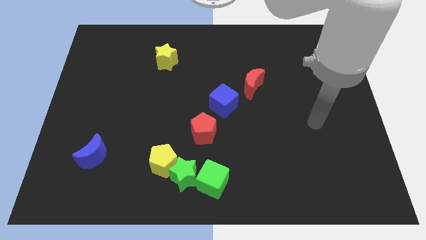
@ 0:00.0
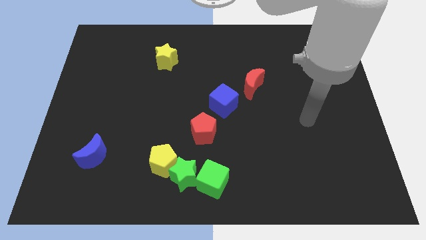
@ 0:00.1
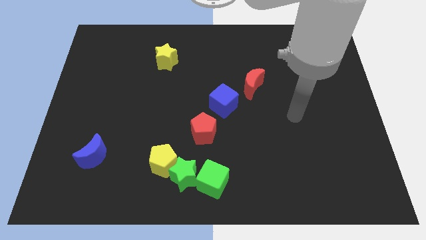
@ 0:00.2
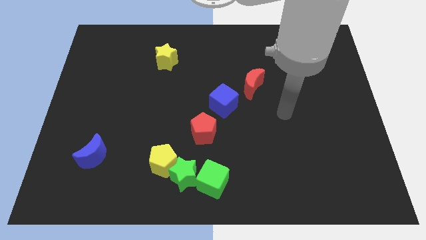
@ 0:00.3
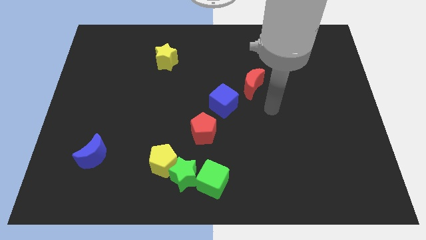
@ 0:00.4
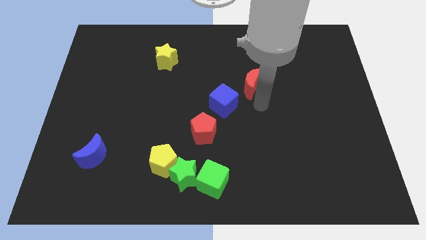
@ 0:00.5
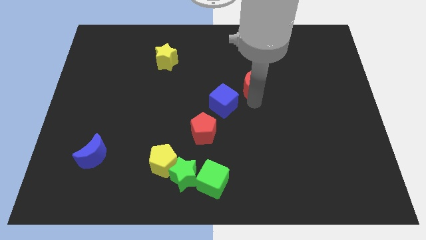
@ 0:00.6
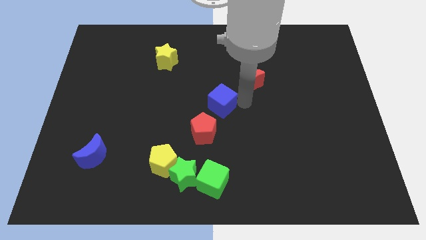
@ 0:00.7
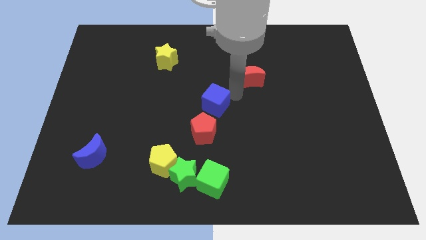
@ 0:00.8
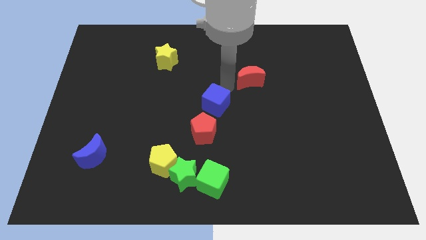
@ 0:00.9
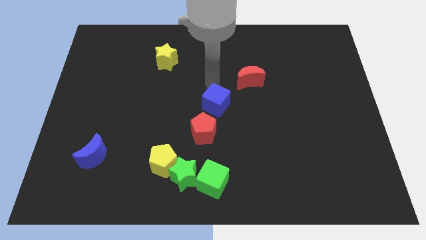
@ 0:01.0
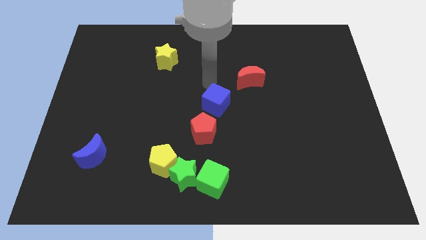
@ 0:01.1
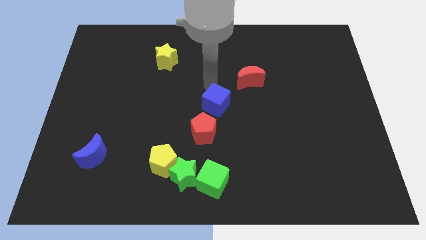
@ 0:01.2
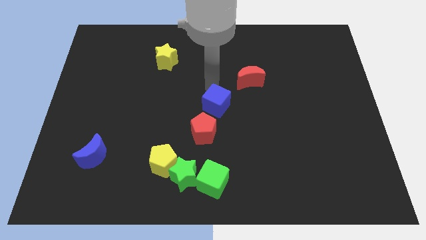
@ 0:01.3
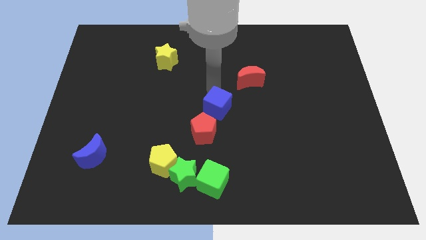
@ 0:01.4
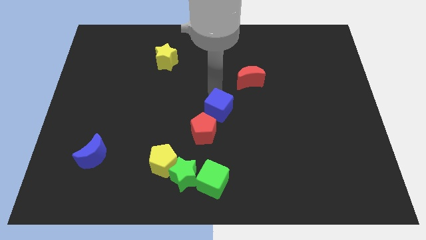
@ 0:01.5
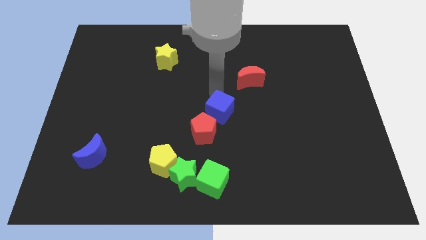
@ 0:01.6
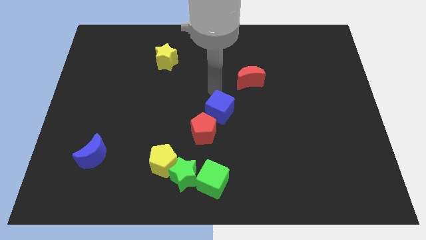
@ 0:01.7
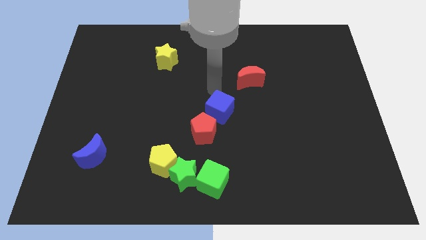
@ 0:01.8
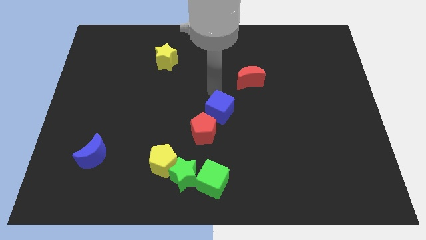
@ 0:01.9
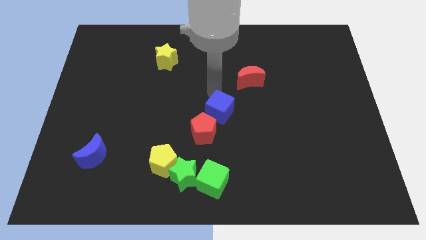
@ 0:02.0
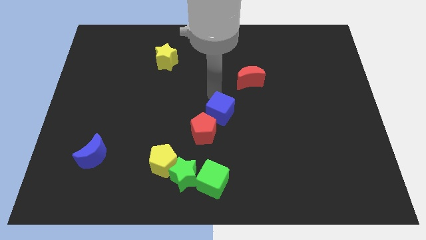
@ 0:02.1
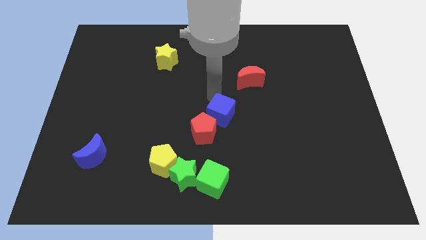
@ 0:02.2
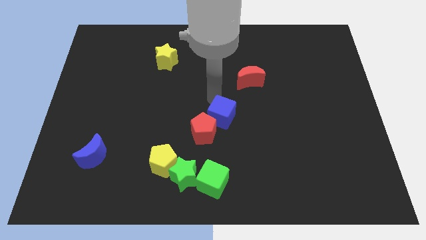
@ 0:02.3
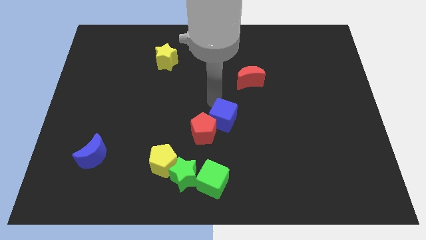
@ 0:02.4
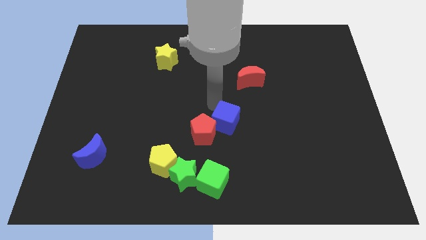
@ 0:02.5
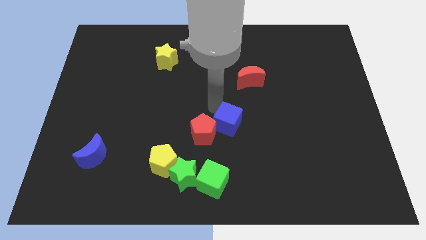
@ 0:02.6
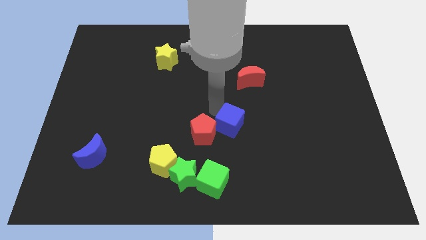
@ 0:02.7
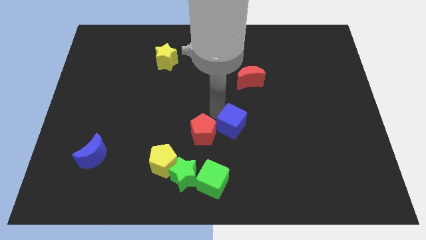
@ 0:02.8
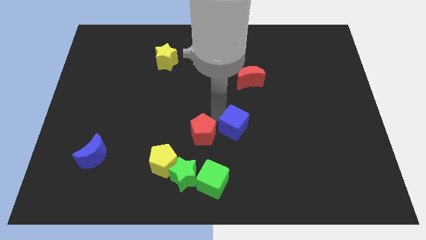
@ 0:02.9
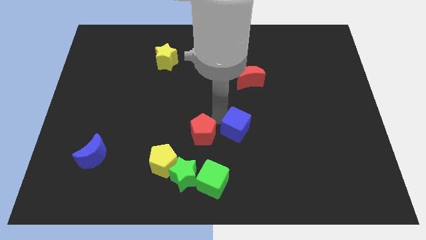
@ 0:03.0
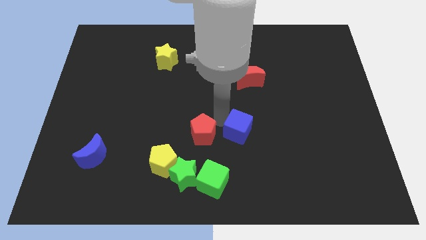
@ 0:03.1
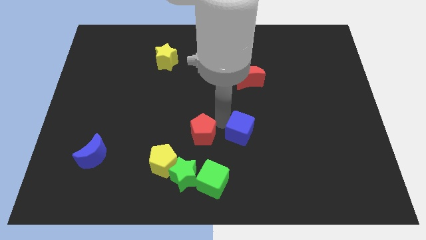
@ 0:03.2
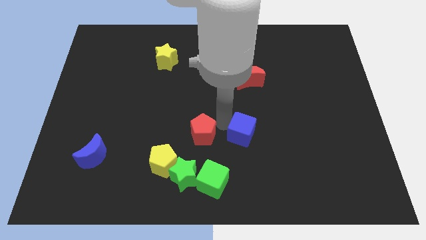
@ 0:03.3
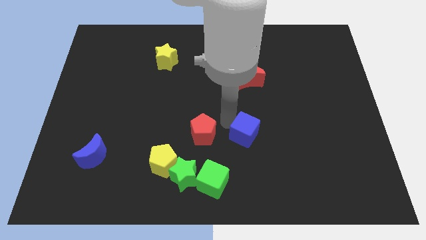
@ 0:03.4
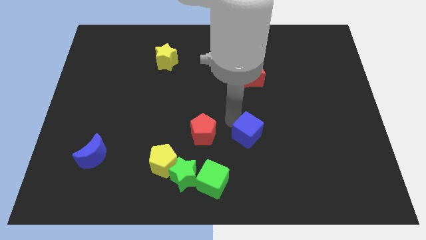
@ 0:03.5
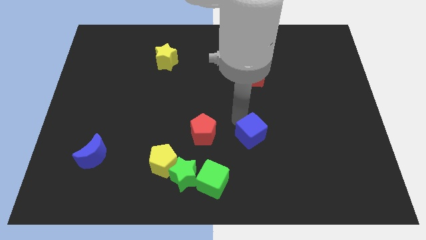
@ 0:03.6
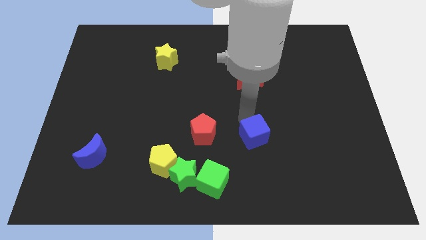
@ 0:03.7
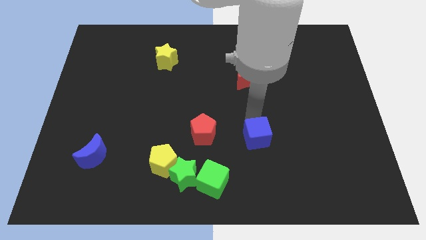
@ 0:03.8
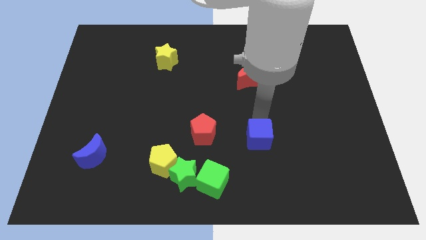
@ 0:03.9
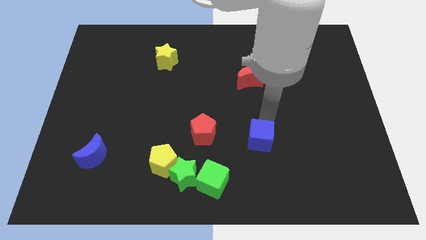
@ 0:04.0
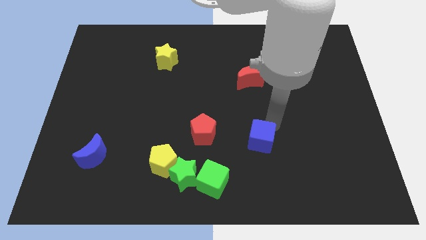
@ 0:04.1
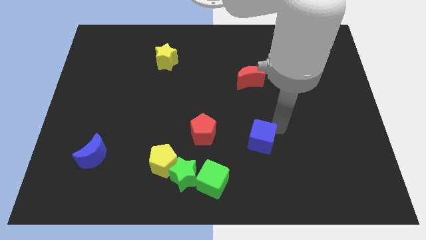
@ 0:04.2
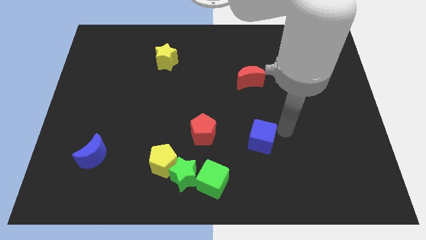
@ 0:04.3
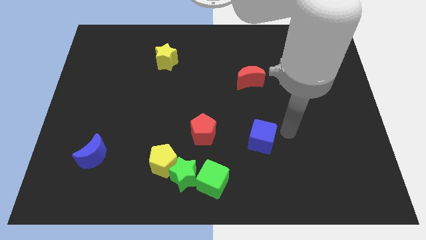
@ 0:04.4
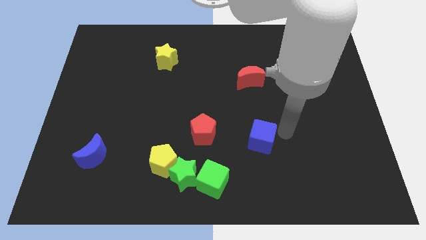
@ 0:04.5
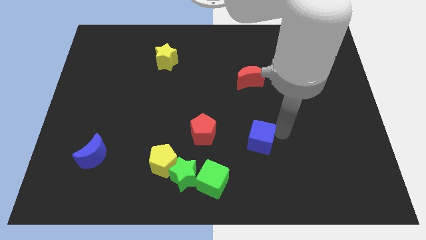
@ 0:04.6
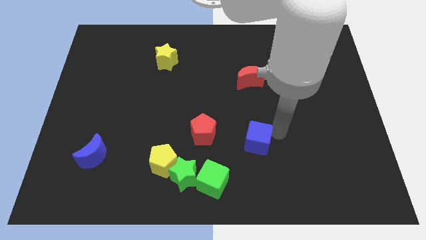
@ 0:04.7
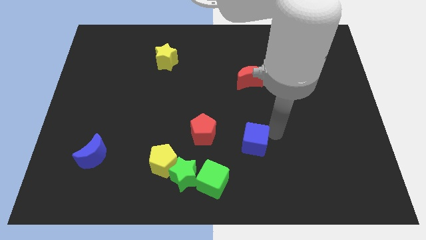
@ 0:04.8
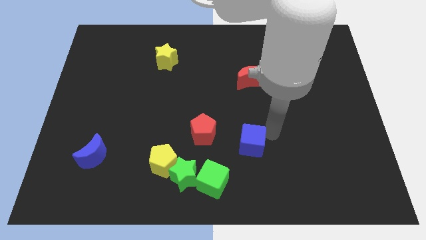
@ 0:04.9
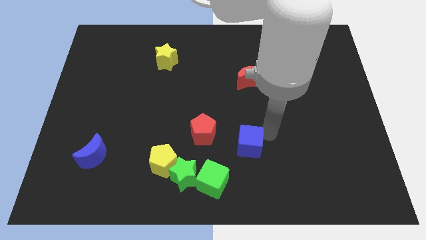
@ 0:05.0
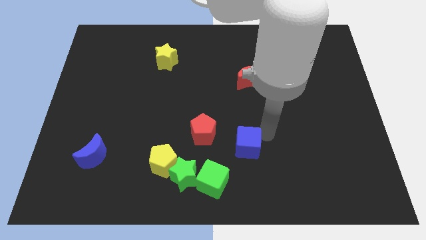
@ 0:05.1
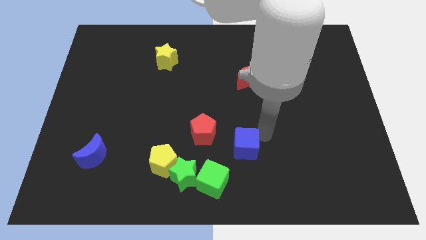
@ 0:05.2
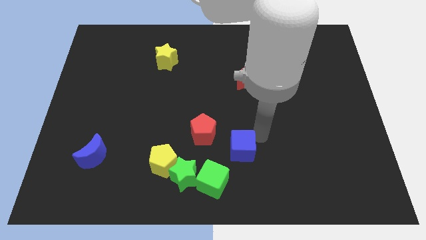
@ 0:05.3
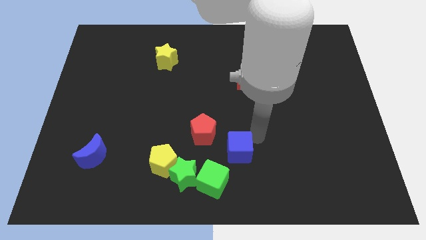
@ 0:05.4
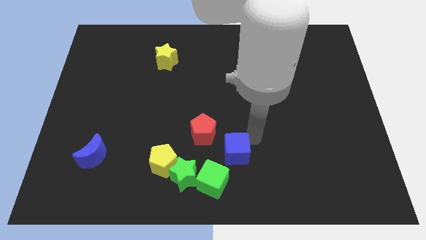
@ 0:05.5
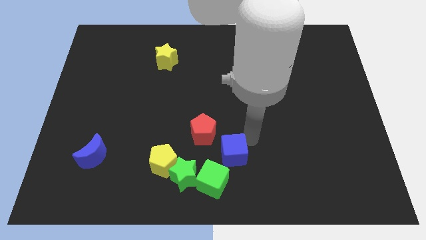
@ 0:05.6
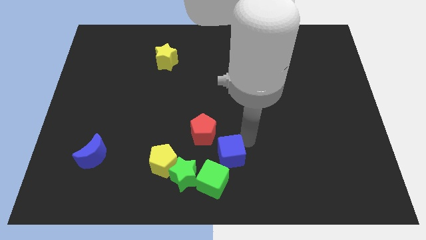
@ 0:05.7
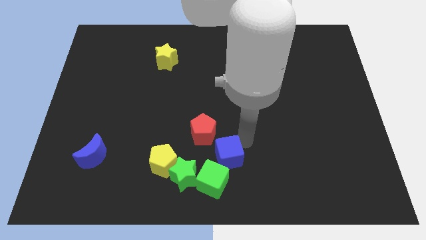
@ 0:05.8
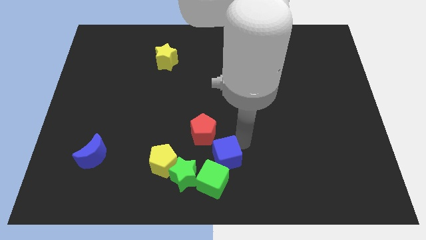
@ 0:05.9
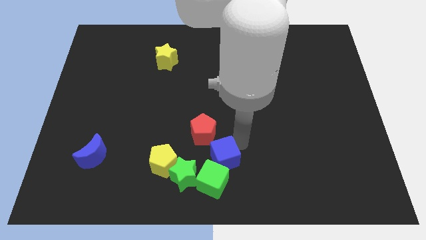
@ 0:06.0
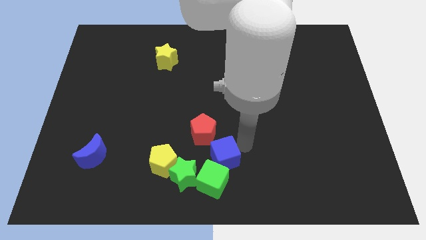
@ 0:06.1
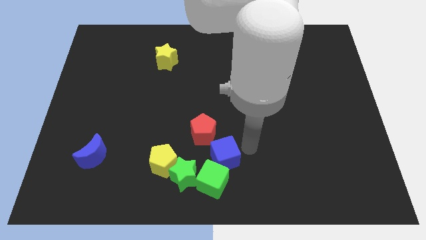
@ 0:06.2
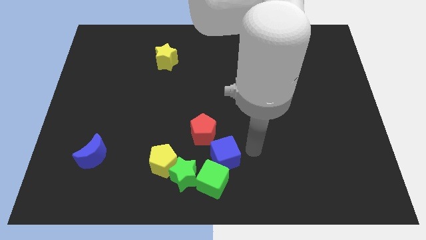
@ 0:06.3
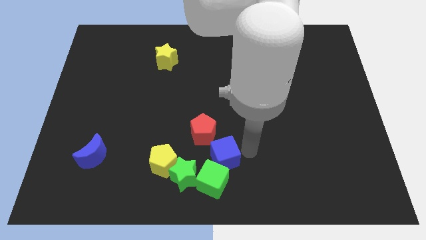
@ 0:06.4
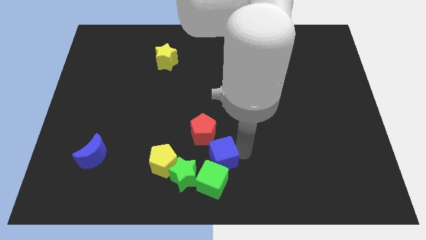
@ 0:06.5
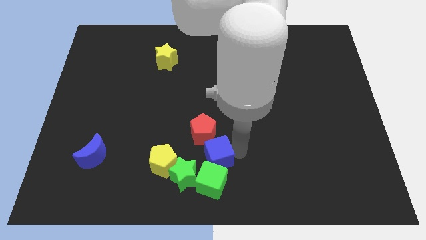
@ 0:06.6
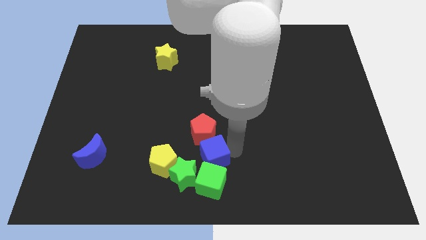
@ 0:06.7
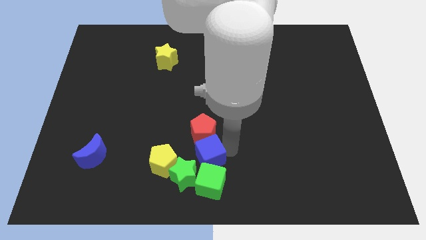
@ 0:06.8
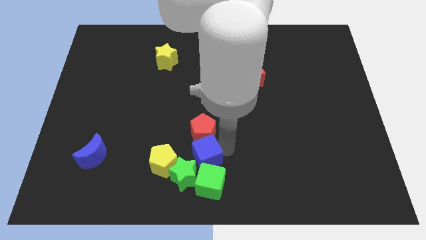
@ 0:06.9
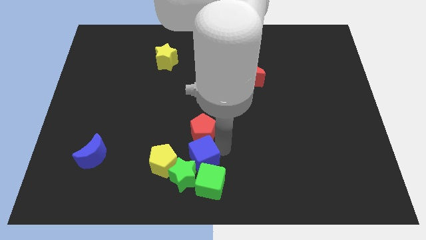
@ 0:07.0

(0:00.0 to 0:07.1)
put the blue cube next to the green star
